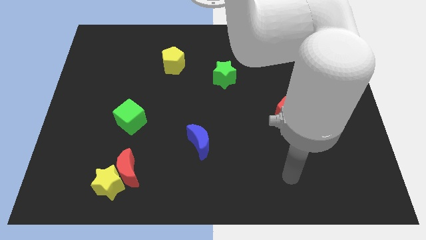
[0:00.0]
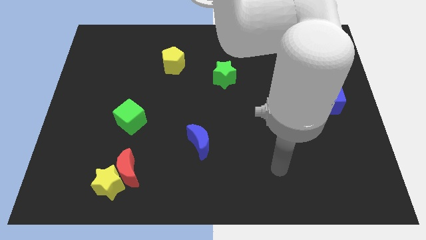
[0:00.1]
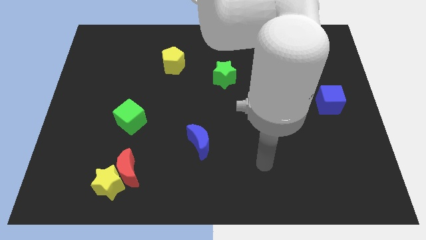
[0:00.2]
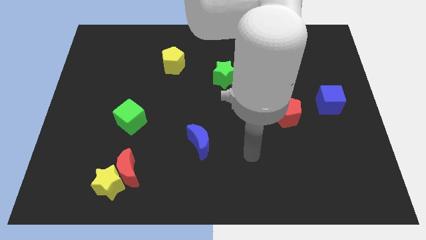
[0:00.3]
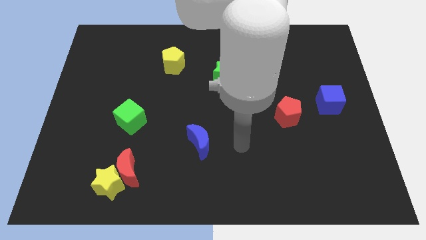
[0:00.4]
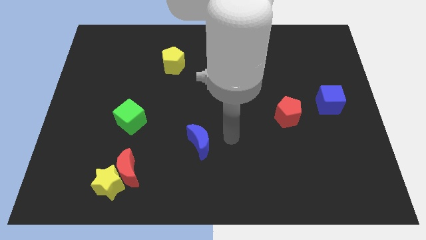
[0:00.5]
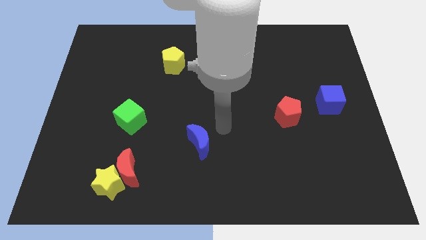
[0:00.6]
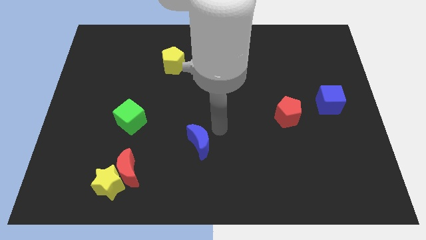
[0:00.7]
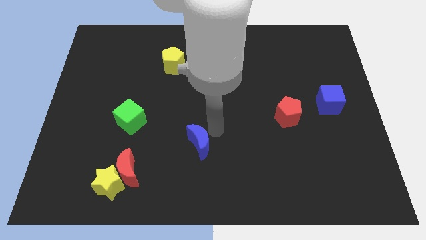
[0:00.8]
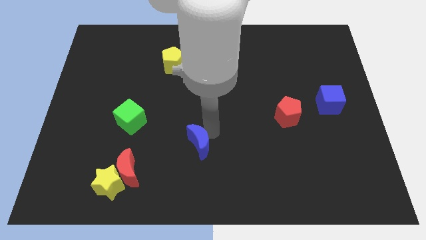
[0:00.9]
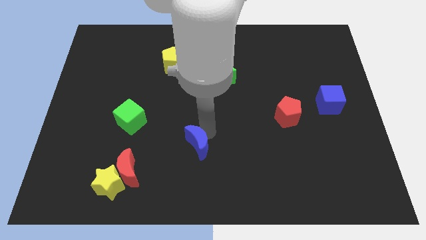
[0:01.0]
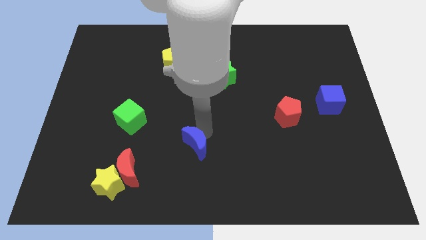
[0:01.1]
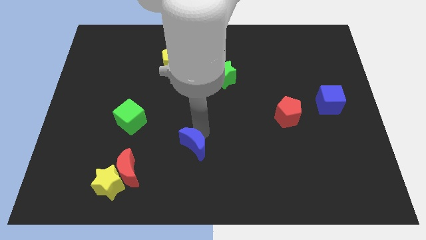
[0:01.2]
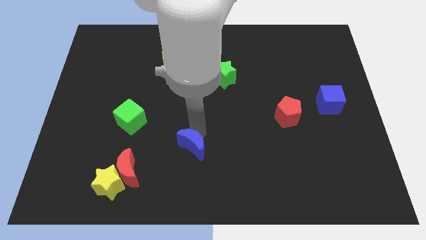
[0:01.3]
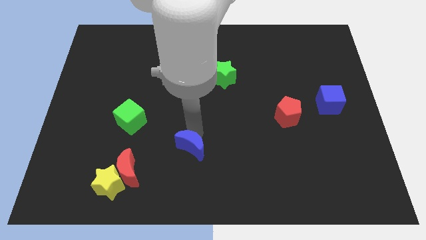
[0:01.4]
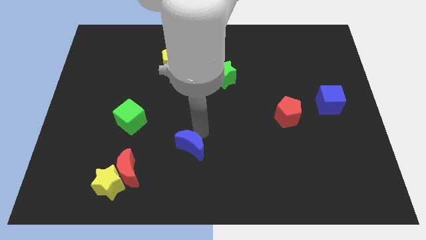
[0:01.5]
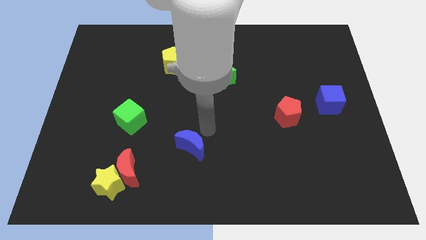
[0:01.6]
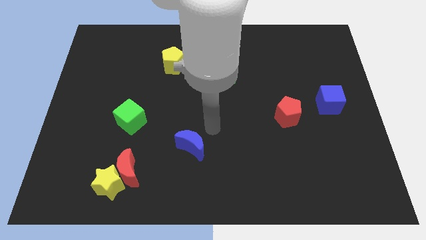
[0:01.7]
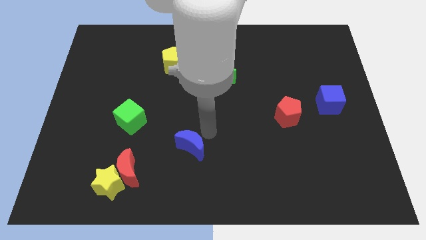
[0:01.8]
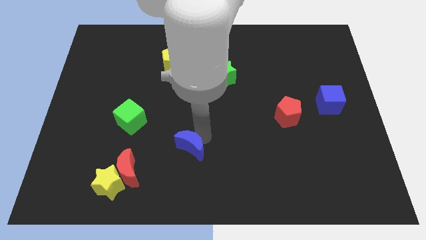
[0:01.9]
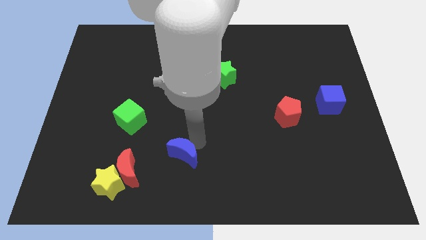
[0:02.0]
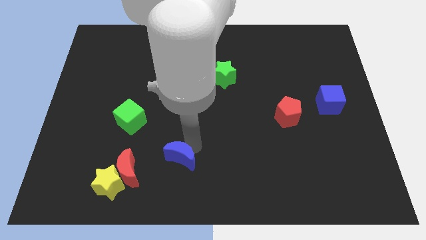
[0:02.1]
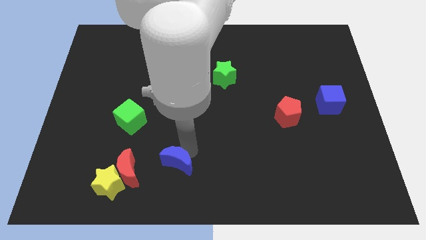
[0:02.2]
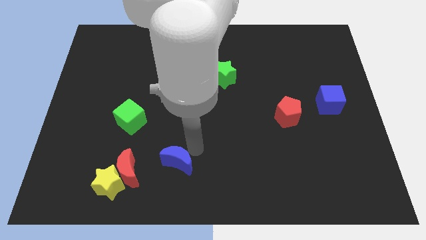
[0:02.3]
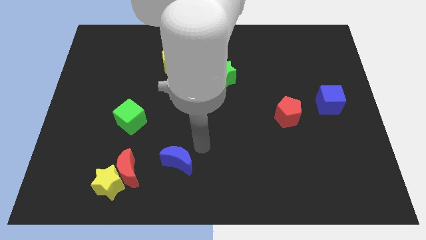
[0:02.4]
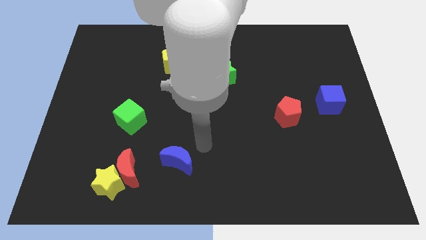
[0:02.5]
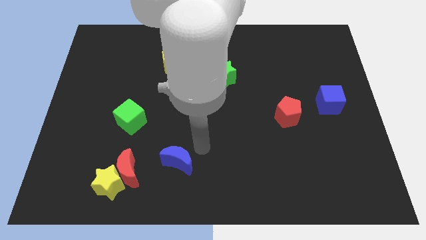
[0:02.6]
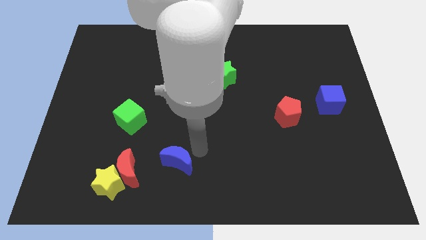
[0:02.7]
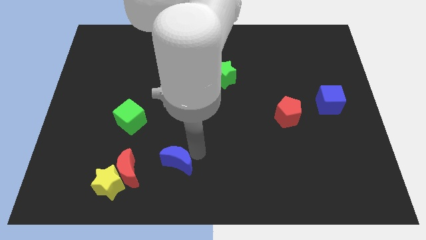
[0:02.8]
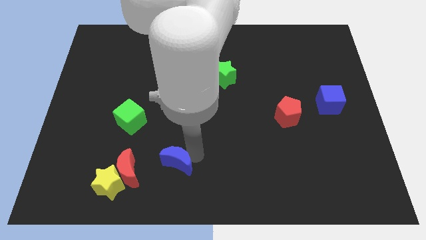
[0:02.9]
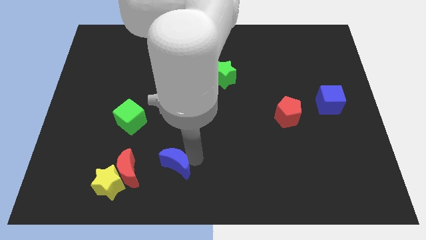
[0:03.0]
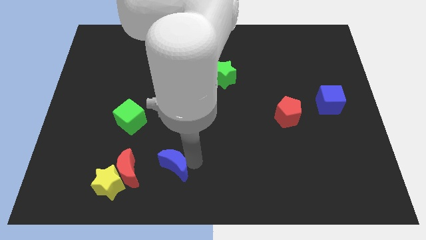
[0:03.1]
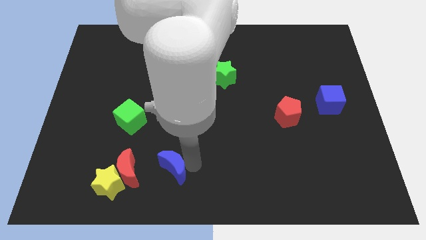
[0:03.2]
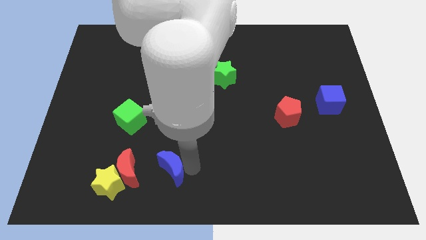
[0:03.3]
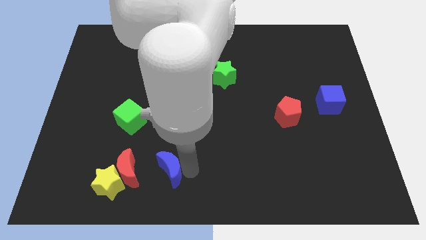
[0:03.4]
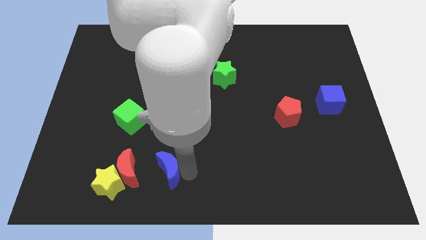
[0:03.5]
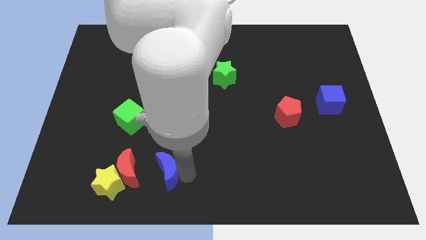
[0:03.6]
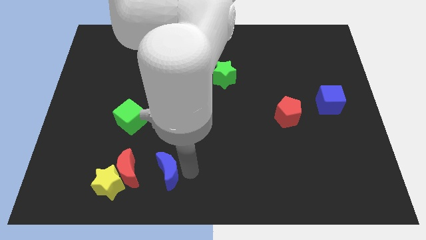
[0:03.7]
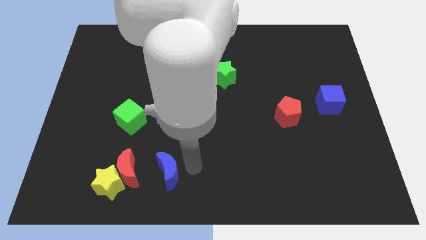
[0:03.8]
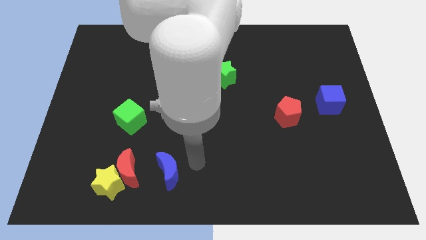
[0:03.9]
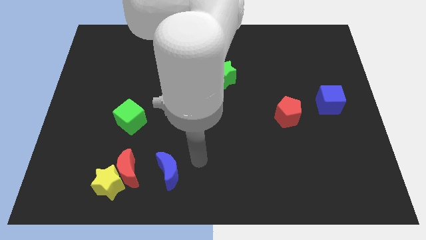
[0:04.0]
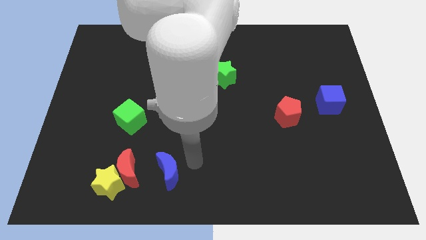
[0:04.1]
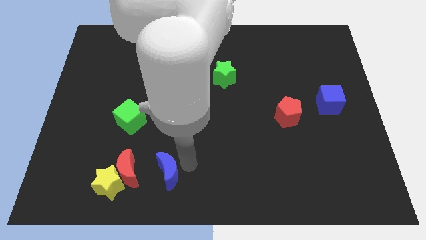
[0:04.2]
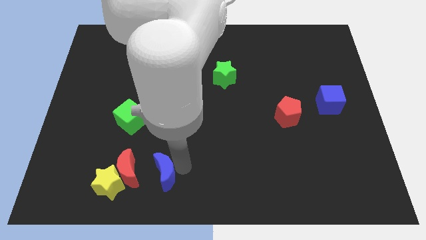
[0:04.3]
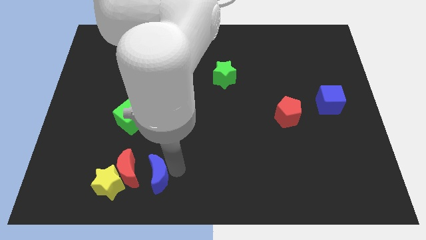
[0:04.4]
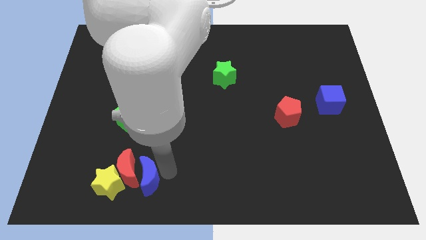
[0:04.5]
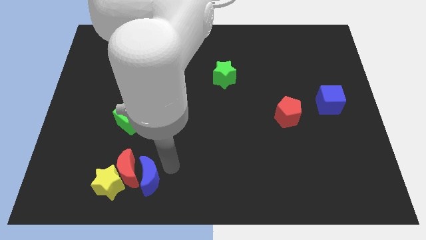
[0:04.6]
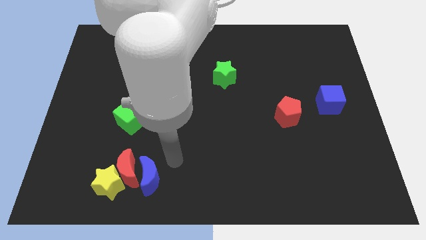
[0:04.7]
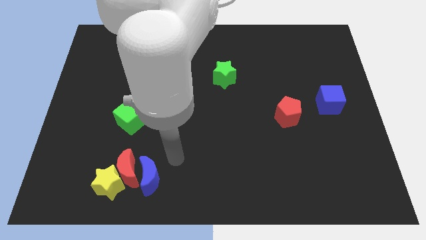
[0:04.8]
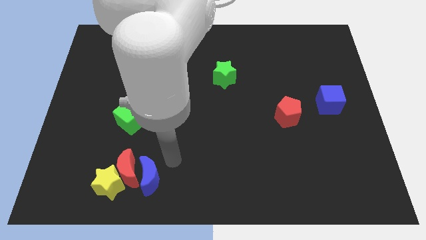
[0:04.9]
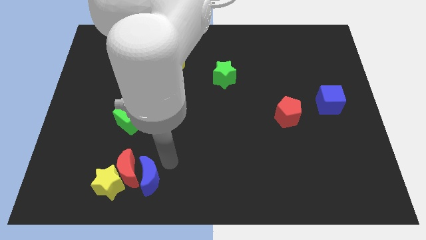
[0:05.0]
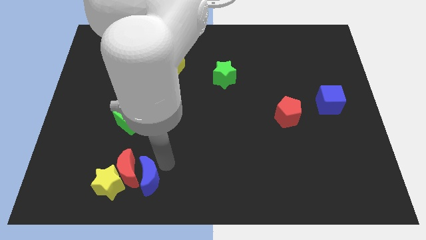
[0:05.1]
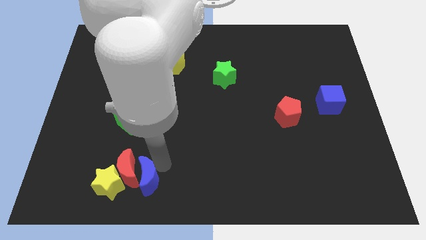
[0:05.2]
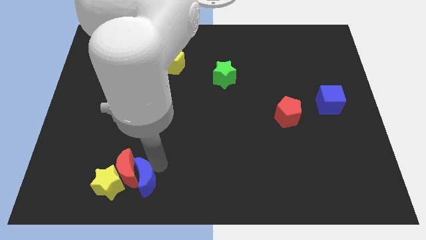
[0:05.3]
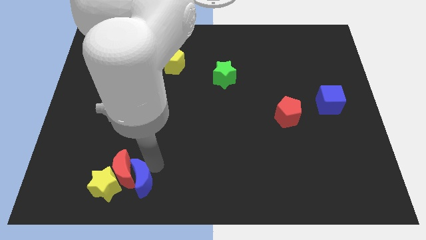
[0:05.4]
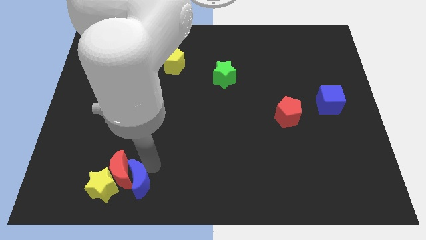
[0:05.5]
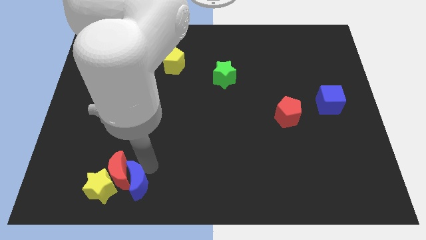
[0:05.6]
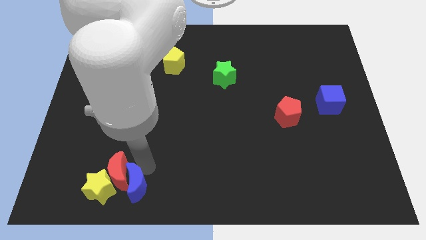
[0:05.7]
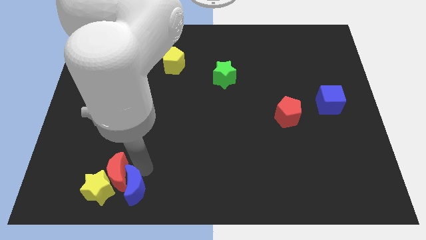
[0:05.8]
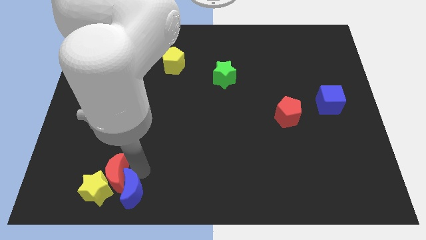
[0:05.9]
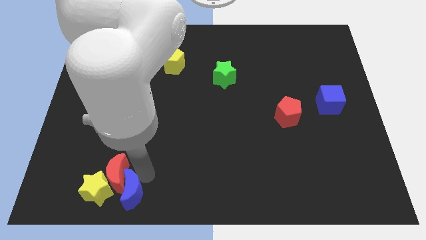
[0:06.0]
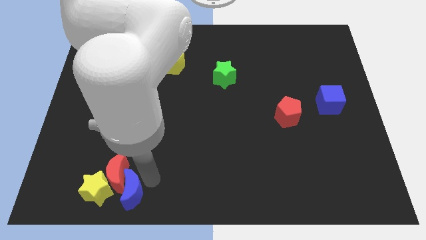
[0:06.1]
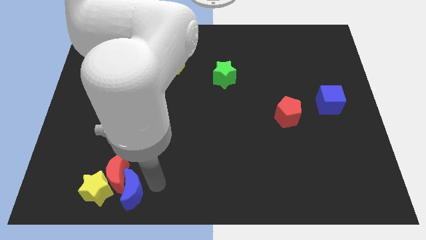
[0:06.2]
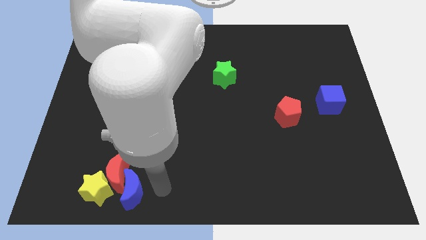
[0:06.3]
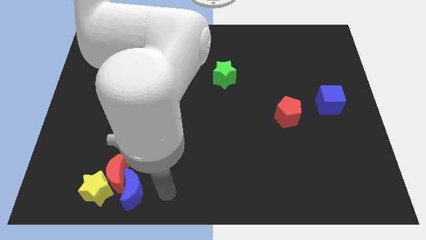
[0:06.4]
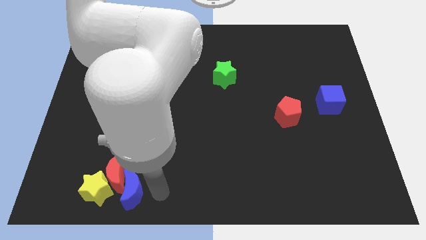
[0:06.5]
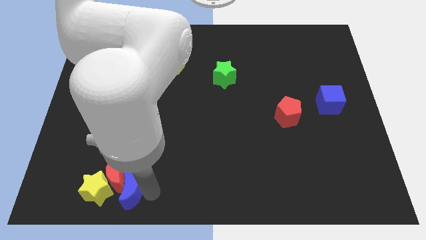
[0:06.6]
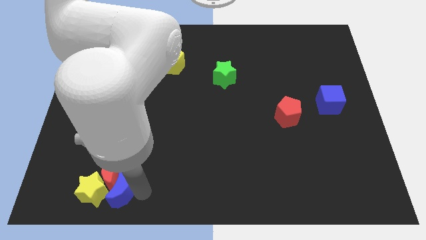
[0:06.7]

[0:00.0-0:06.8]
move the blue moon close to the yellow star
